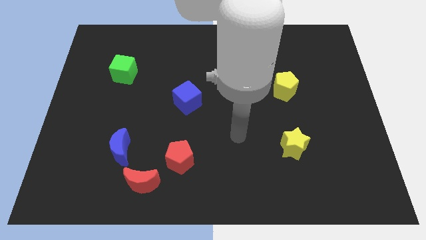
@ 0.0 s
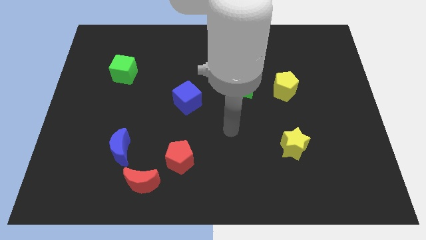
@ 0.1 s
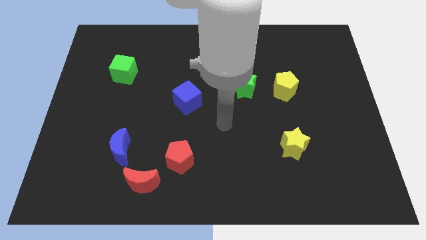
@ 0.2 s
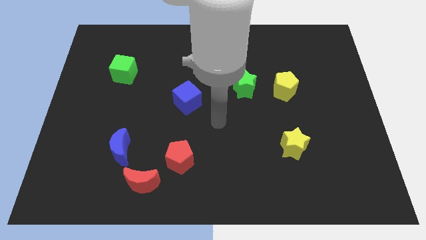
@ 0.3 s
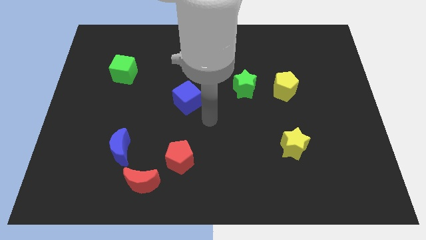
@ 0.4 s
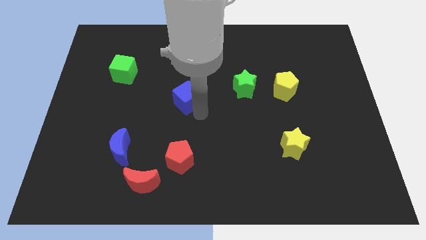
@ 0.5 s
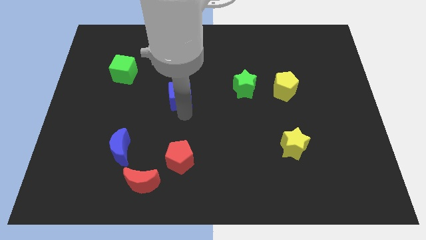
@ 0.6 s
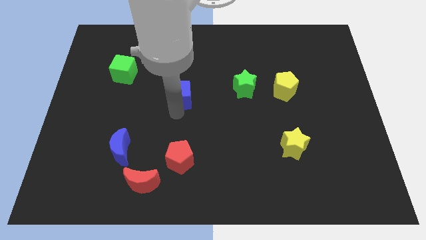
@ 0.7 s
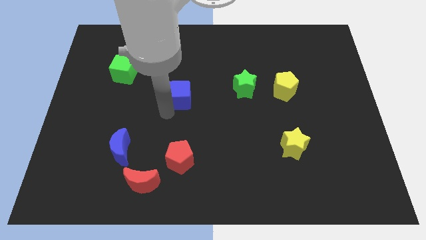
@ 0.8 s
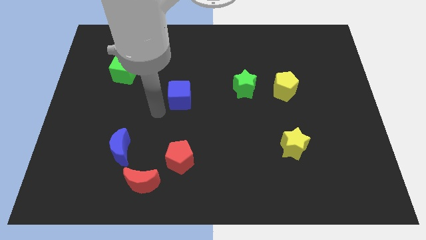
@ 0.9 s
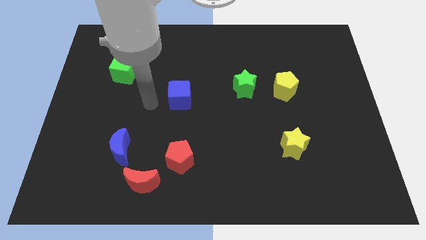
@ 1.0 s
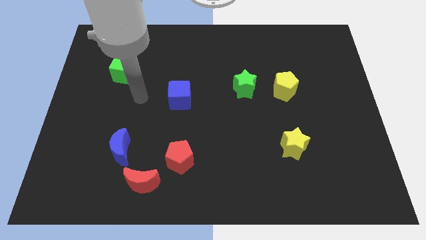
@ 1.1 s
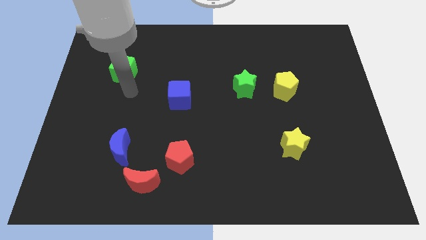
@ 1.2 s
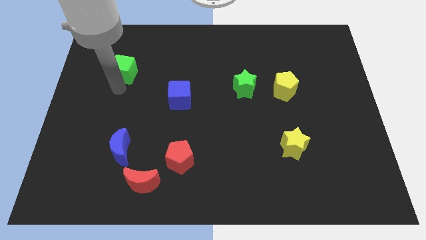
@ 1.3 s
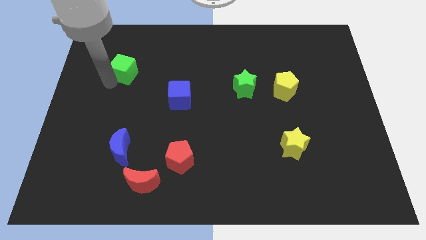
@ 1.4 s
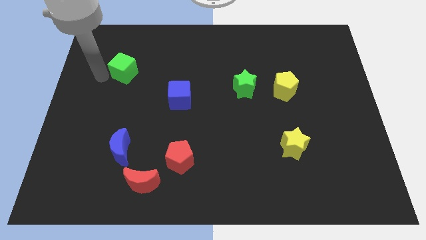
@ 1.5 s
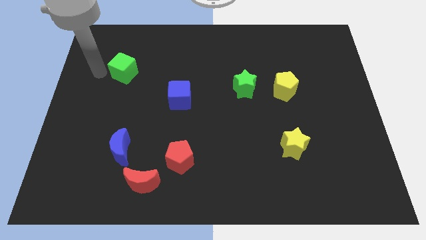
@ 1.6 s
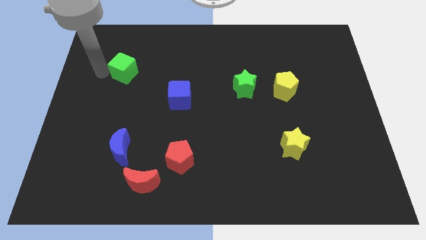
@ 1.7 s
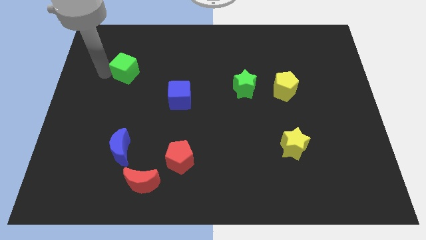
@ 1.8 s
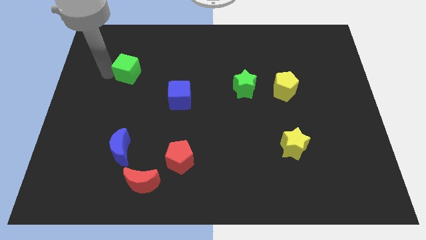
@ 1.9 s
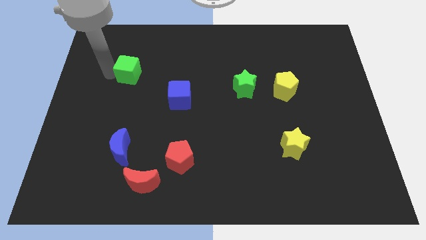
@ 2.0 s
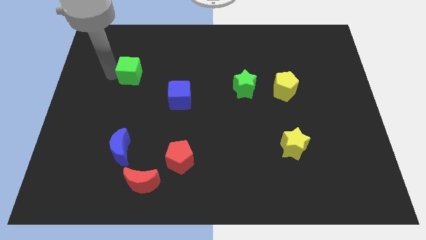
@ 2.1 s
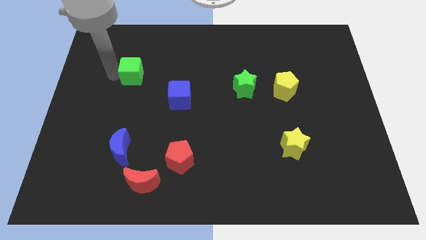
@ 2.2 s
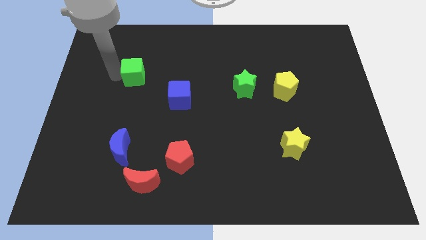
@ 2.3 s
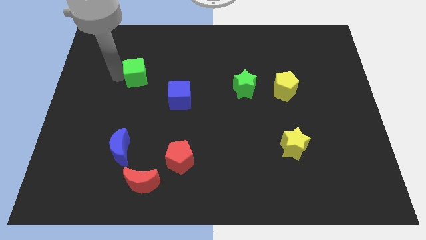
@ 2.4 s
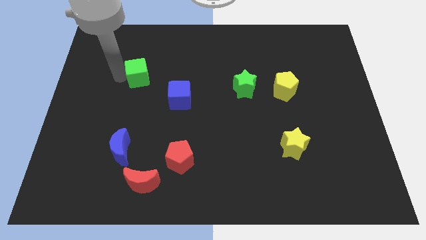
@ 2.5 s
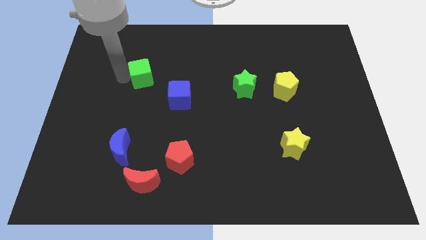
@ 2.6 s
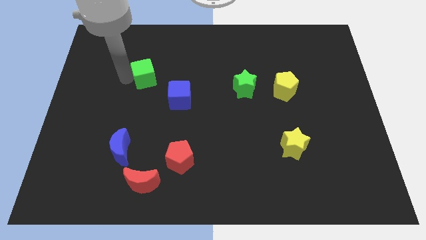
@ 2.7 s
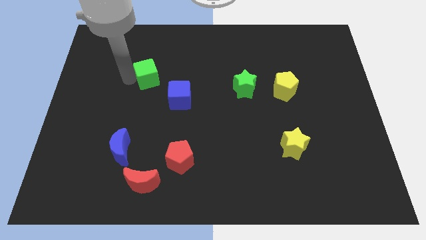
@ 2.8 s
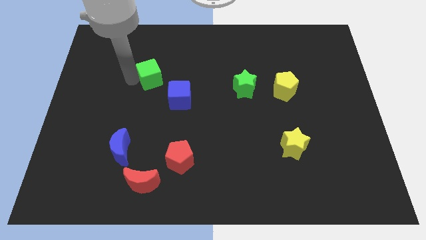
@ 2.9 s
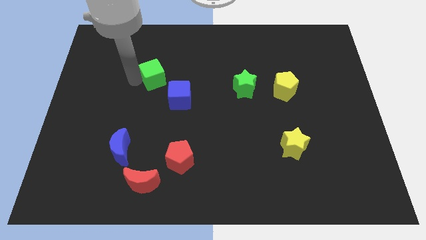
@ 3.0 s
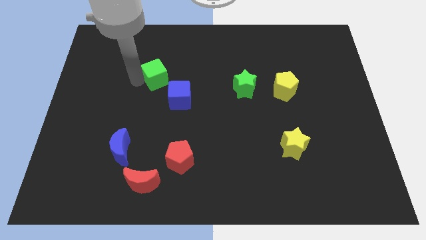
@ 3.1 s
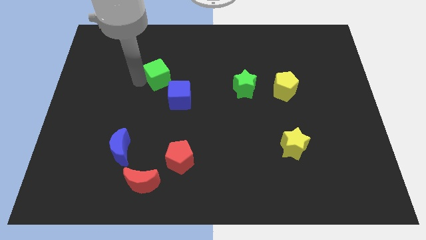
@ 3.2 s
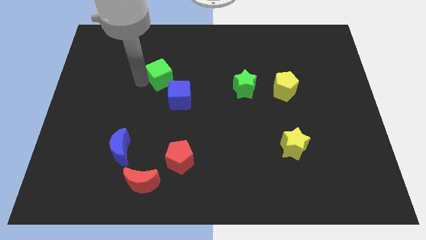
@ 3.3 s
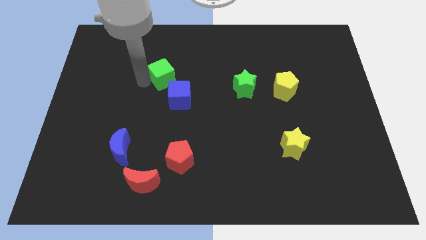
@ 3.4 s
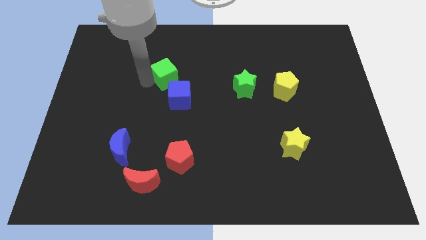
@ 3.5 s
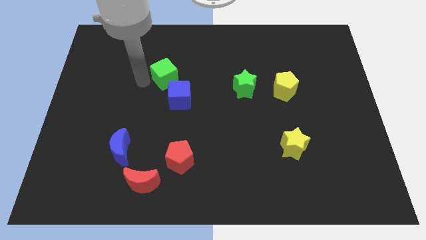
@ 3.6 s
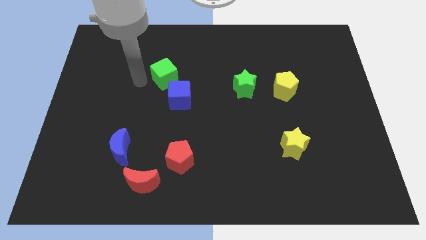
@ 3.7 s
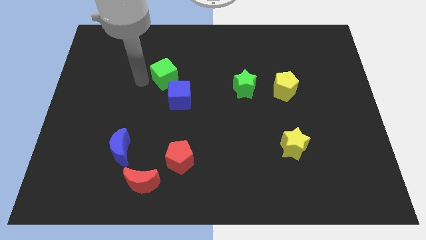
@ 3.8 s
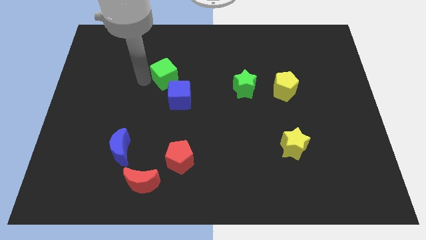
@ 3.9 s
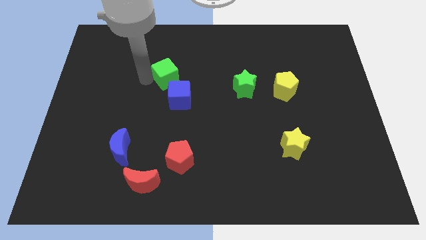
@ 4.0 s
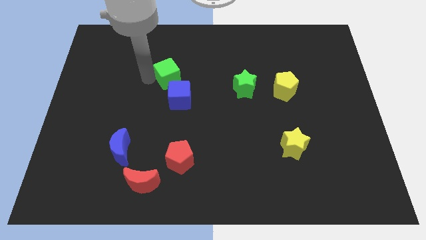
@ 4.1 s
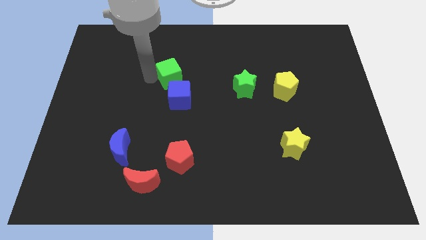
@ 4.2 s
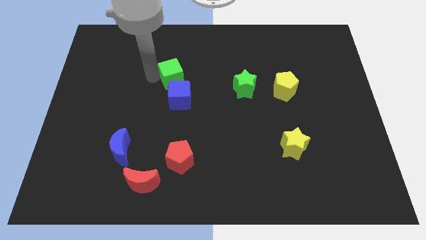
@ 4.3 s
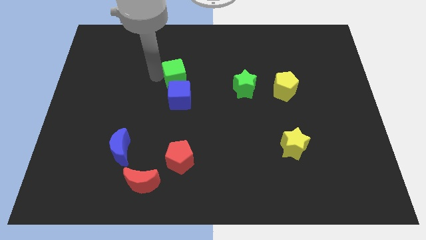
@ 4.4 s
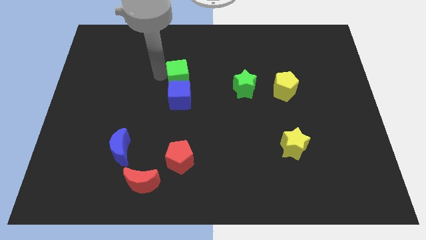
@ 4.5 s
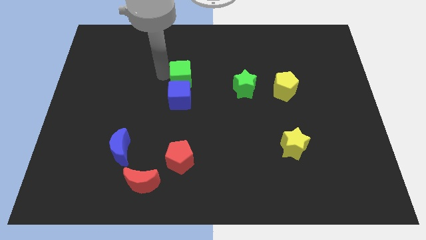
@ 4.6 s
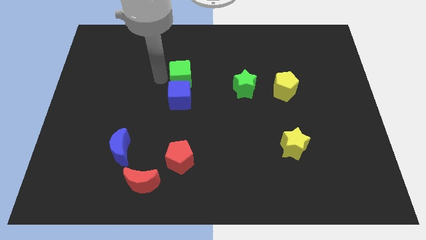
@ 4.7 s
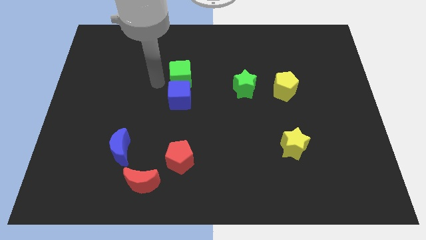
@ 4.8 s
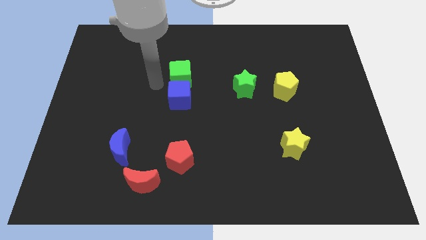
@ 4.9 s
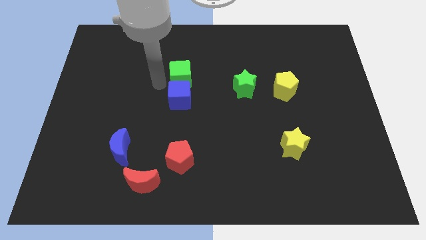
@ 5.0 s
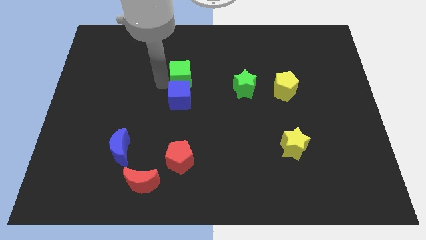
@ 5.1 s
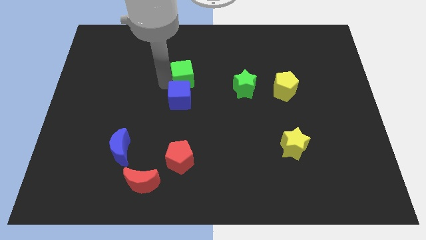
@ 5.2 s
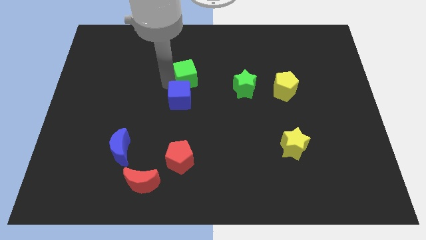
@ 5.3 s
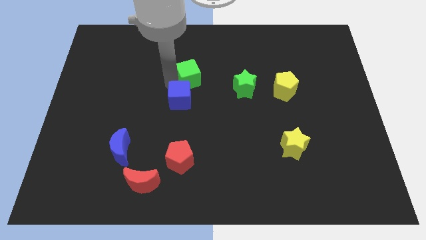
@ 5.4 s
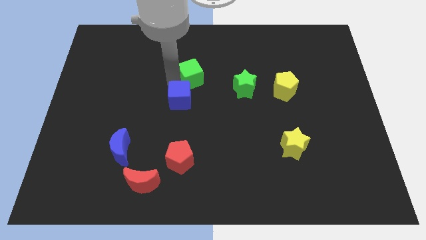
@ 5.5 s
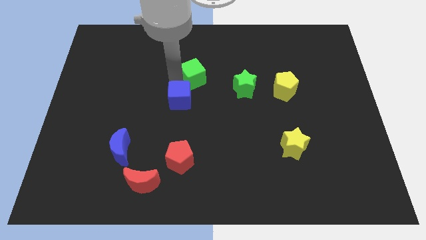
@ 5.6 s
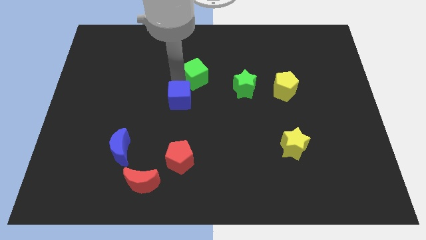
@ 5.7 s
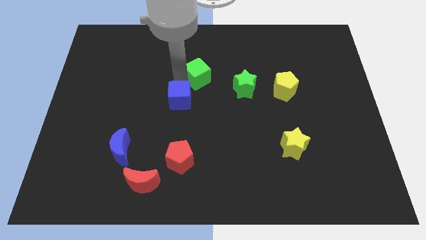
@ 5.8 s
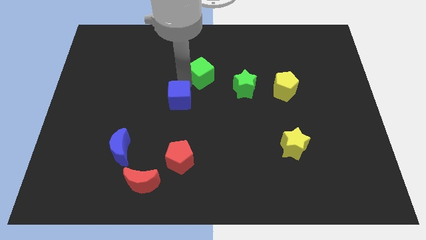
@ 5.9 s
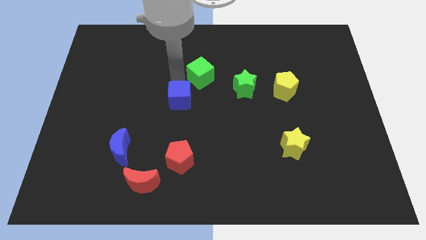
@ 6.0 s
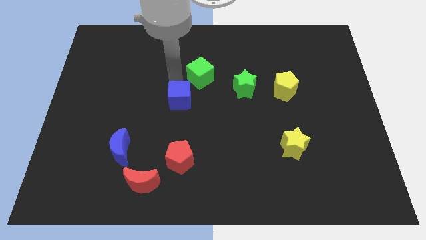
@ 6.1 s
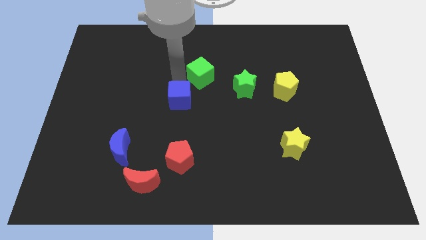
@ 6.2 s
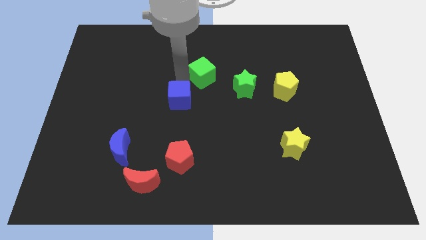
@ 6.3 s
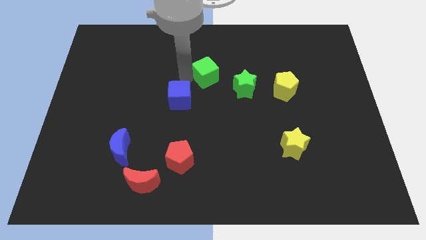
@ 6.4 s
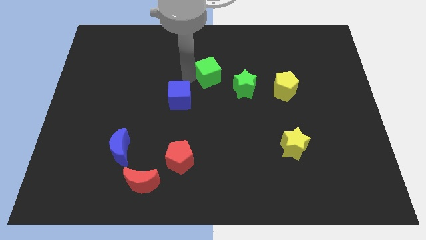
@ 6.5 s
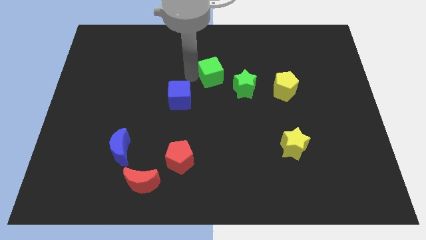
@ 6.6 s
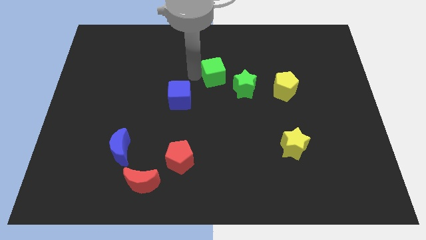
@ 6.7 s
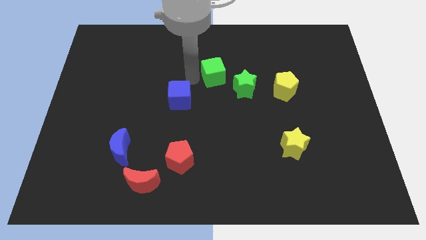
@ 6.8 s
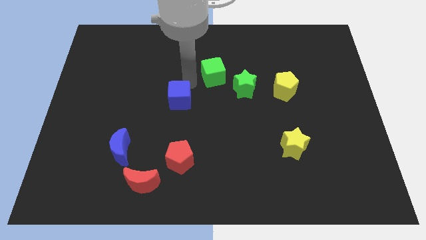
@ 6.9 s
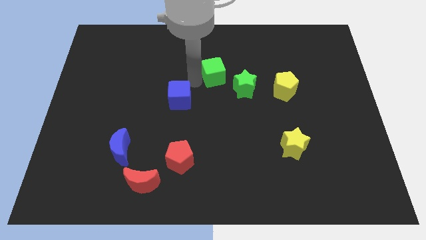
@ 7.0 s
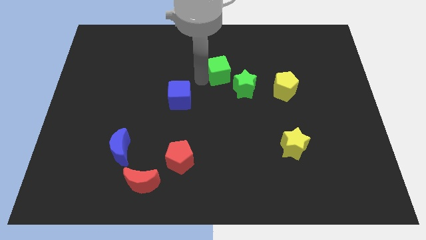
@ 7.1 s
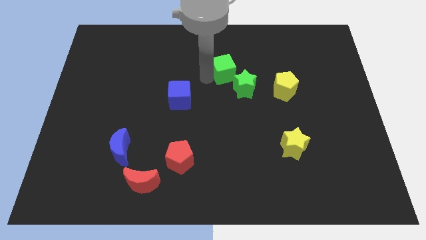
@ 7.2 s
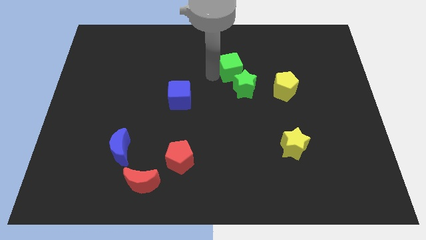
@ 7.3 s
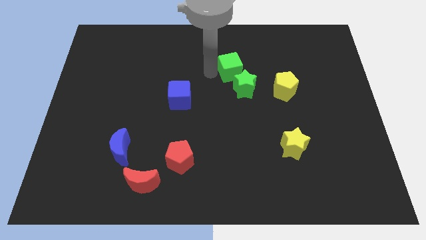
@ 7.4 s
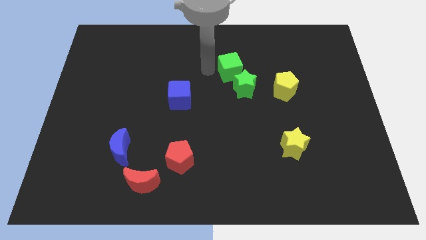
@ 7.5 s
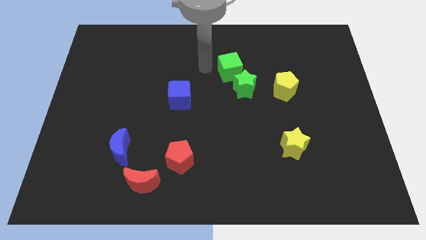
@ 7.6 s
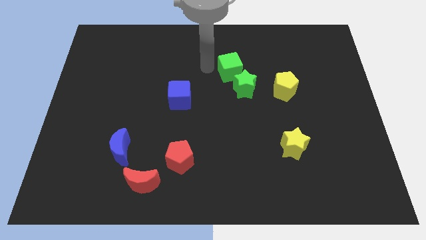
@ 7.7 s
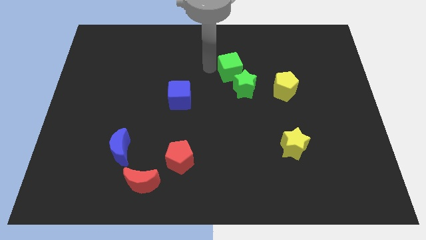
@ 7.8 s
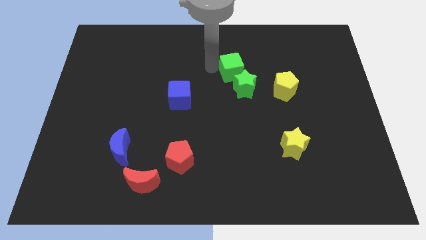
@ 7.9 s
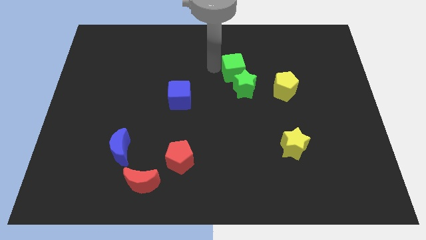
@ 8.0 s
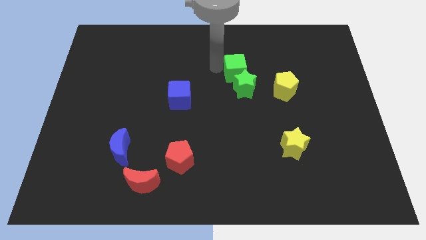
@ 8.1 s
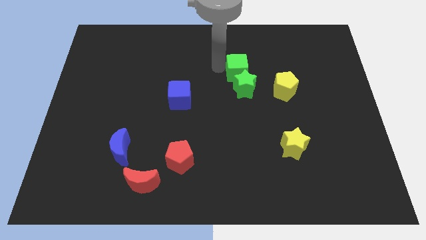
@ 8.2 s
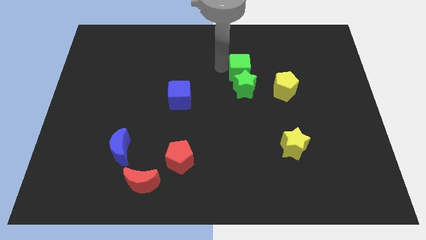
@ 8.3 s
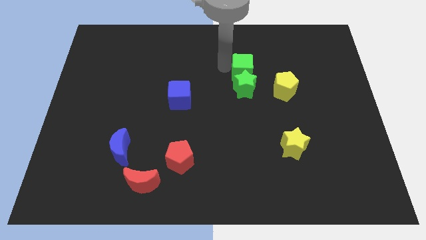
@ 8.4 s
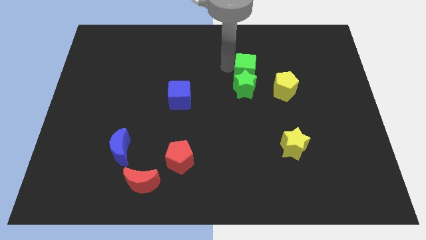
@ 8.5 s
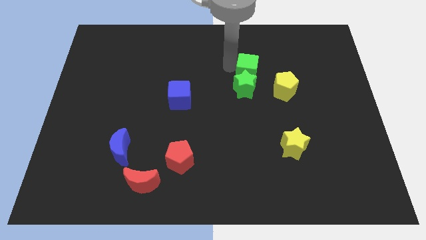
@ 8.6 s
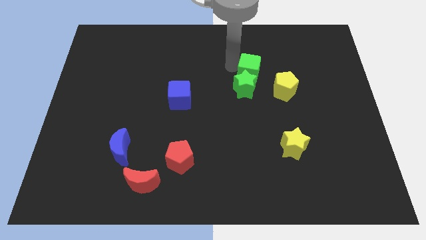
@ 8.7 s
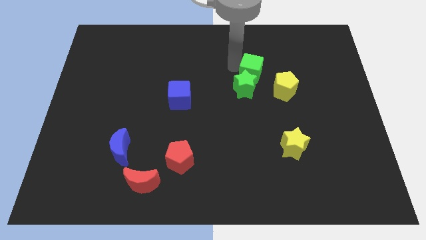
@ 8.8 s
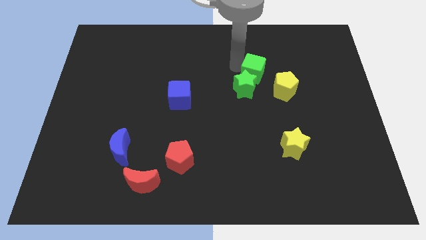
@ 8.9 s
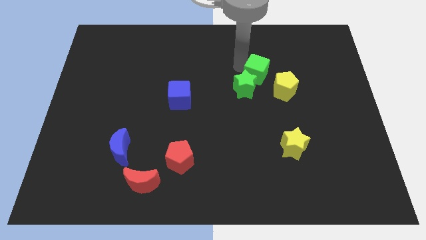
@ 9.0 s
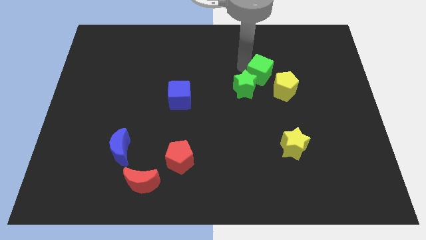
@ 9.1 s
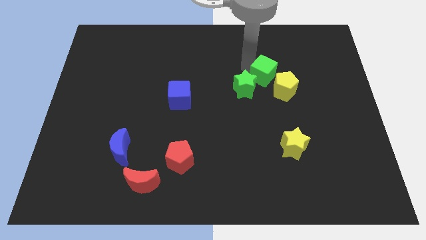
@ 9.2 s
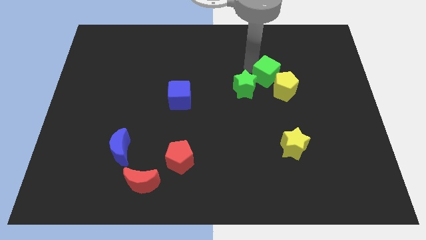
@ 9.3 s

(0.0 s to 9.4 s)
put the green cube close to the yellow pentagon
